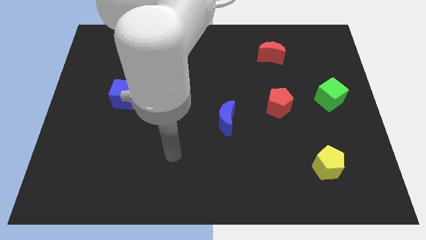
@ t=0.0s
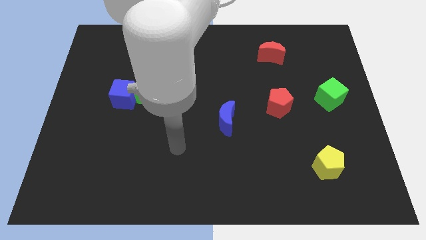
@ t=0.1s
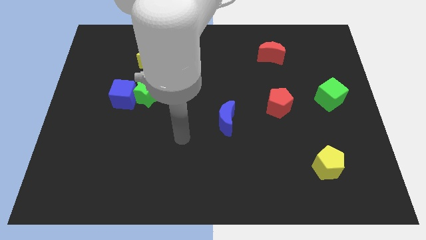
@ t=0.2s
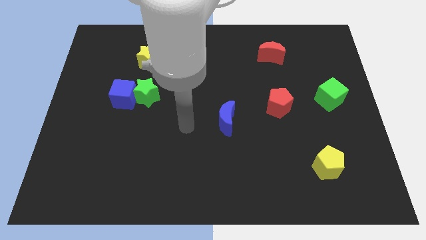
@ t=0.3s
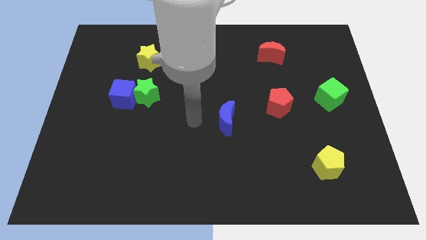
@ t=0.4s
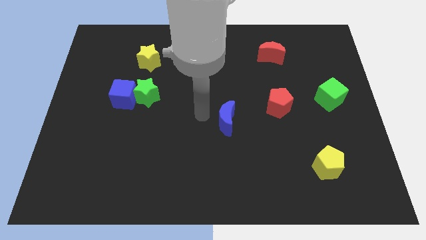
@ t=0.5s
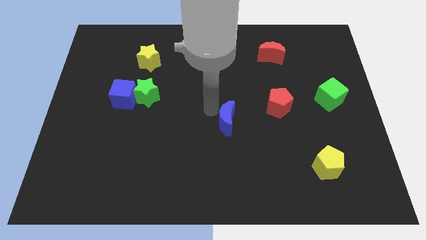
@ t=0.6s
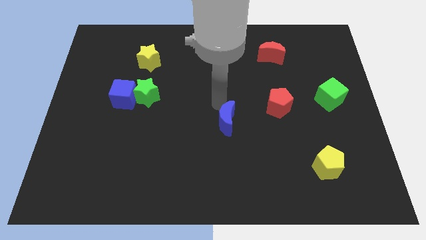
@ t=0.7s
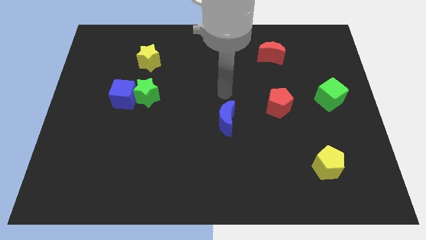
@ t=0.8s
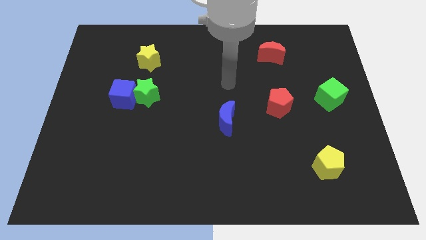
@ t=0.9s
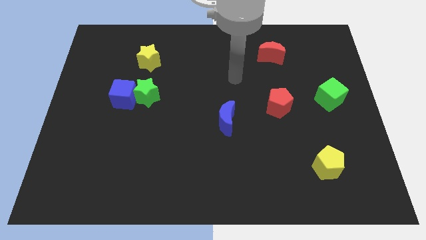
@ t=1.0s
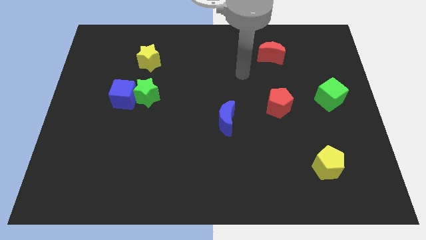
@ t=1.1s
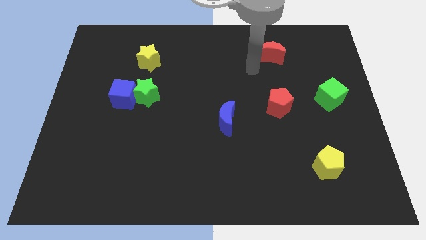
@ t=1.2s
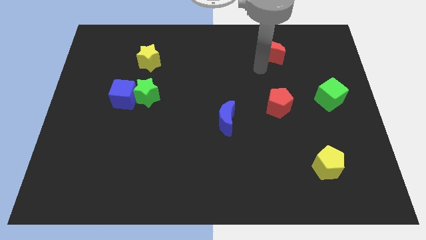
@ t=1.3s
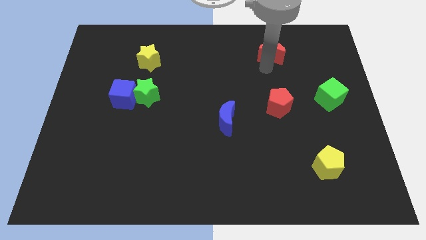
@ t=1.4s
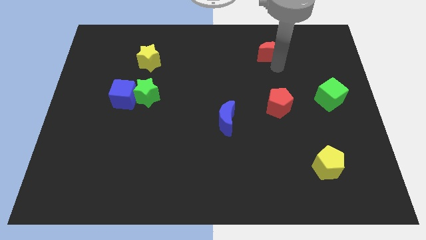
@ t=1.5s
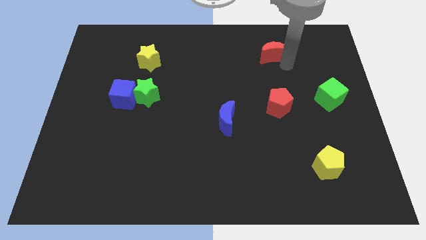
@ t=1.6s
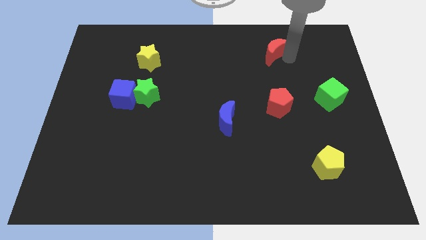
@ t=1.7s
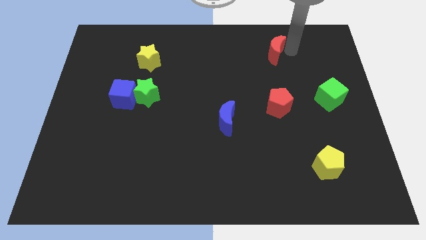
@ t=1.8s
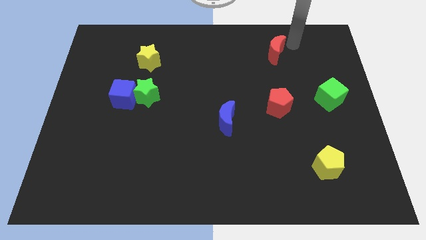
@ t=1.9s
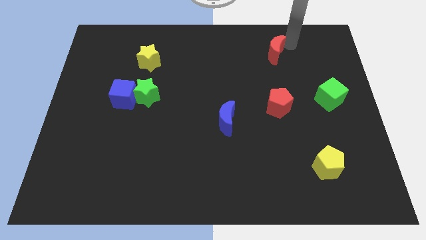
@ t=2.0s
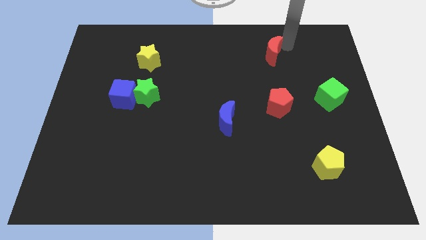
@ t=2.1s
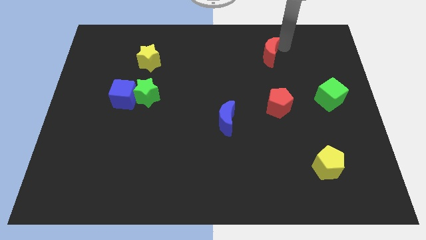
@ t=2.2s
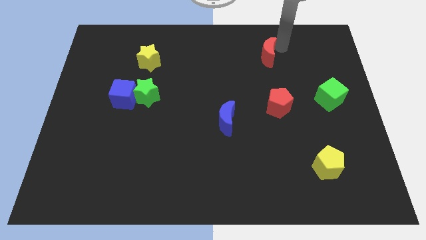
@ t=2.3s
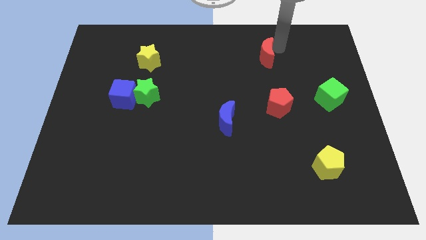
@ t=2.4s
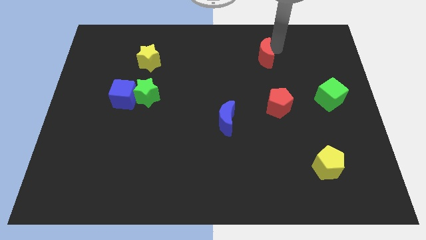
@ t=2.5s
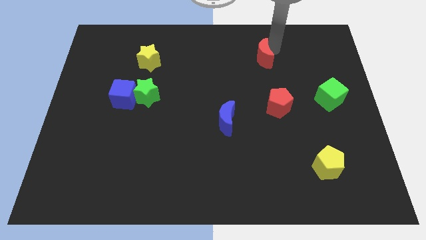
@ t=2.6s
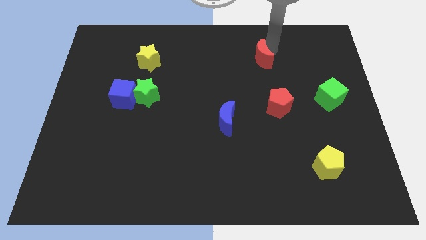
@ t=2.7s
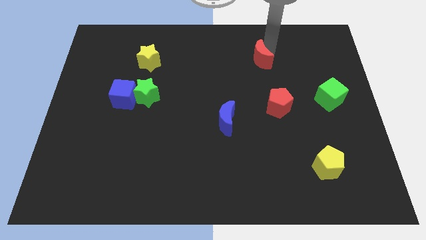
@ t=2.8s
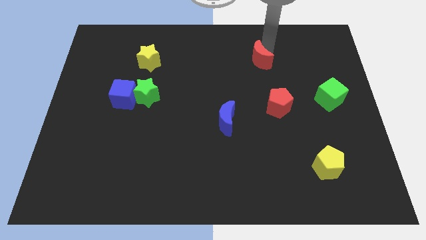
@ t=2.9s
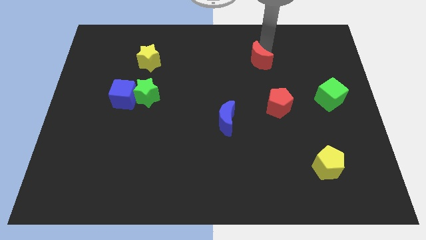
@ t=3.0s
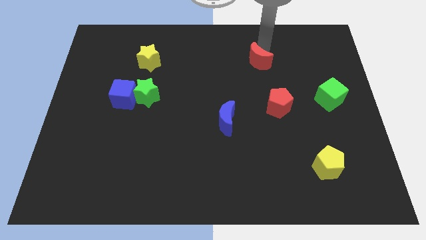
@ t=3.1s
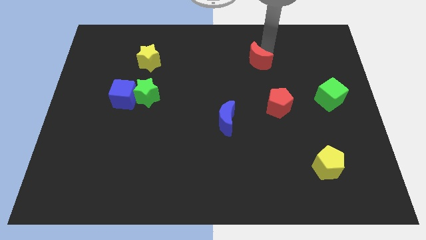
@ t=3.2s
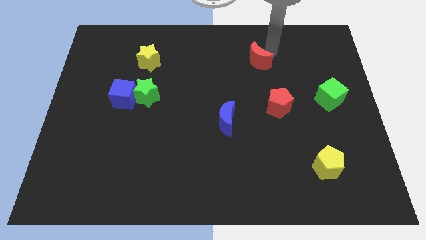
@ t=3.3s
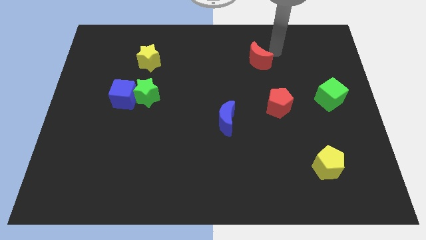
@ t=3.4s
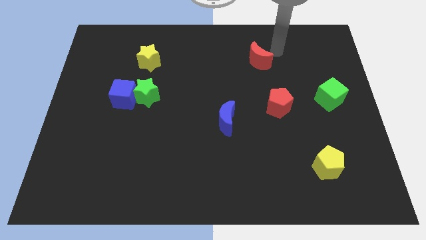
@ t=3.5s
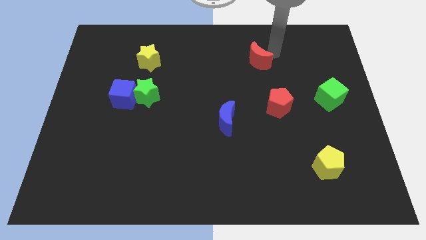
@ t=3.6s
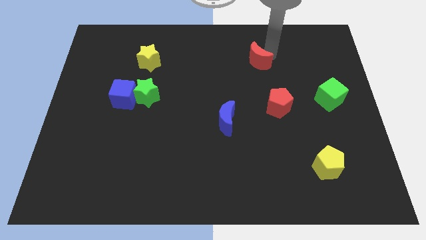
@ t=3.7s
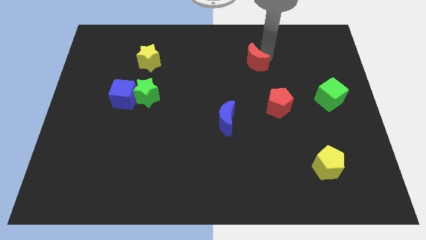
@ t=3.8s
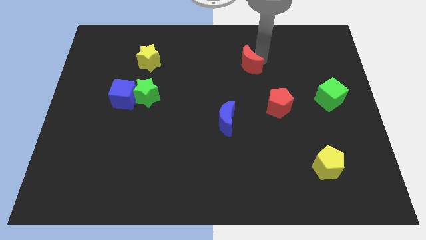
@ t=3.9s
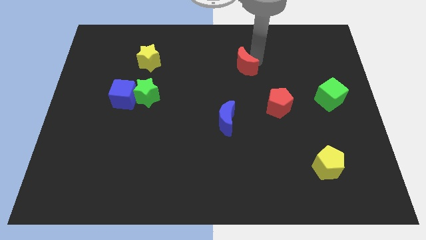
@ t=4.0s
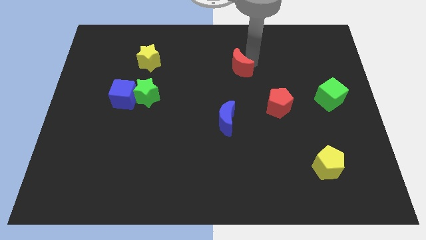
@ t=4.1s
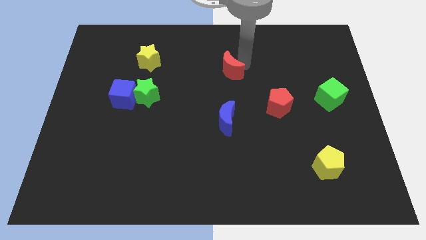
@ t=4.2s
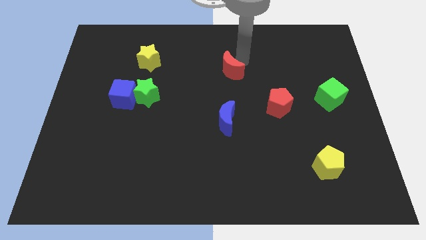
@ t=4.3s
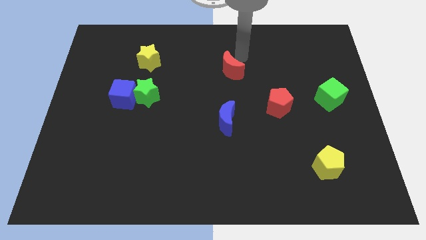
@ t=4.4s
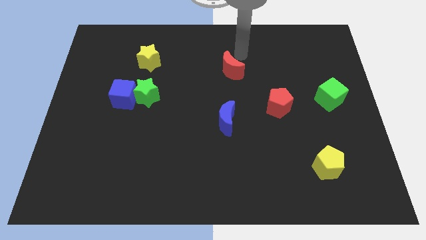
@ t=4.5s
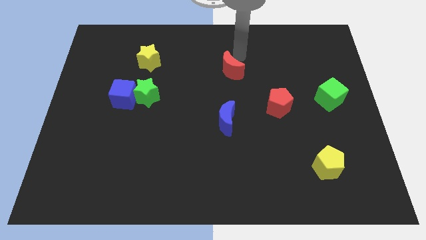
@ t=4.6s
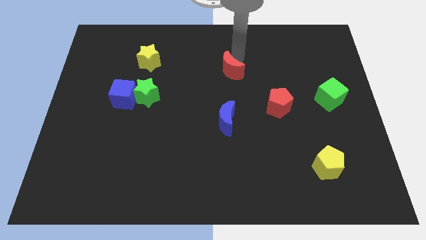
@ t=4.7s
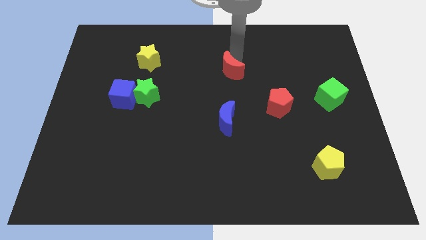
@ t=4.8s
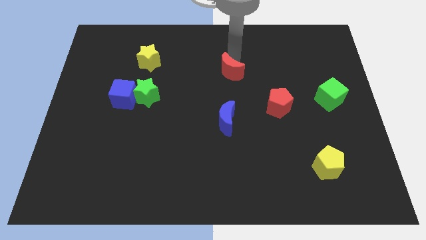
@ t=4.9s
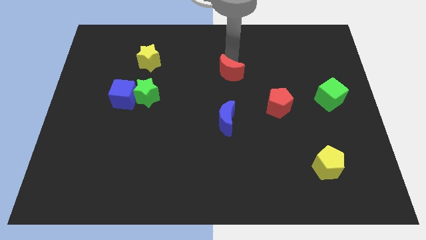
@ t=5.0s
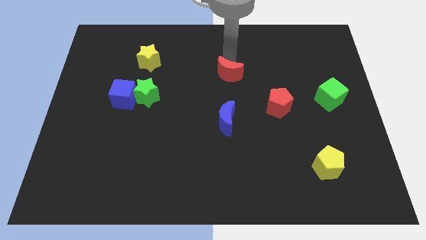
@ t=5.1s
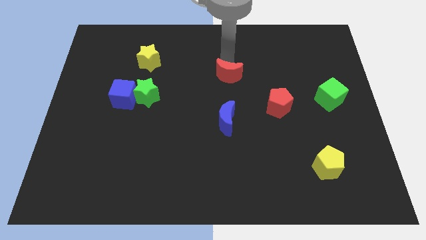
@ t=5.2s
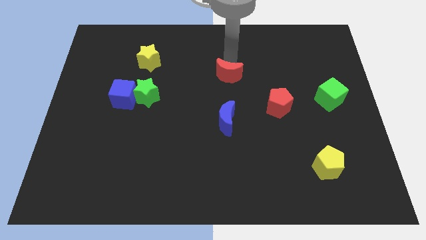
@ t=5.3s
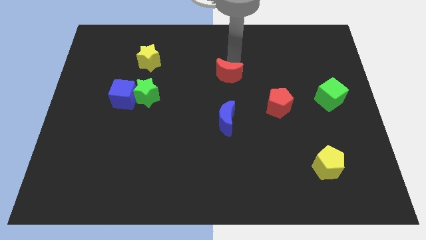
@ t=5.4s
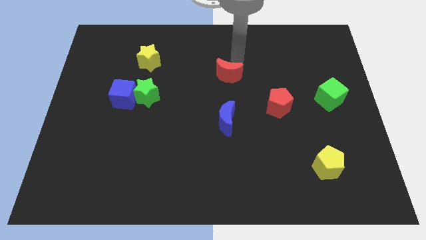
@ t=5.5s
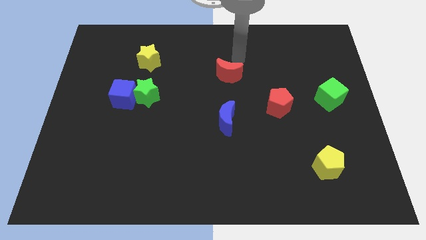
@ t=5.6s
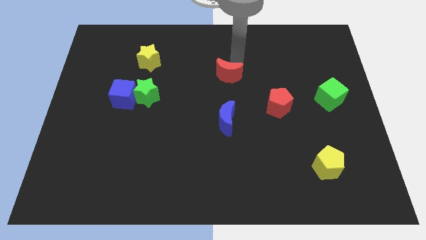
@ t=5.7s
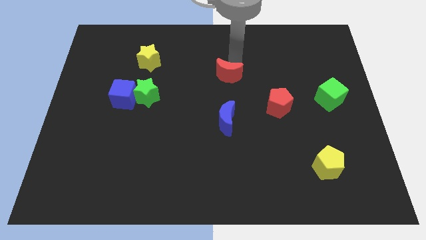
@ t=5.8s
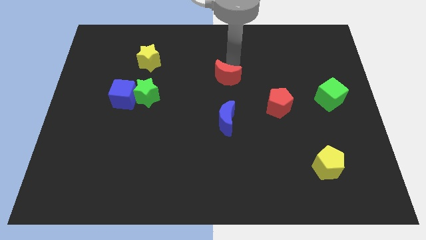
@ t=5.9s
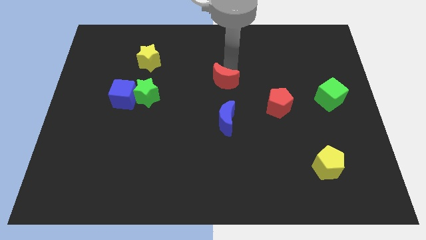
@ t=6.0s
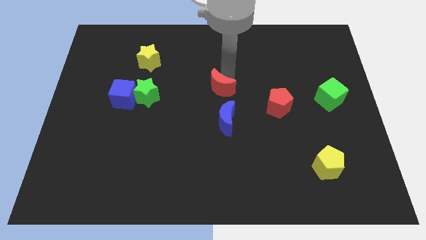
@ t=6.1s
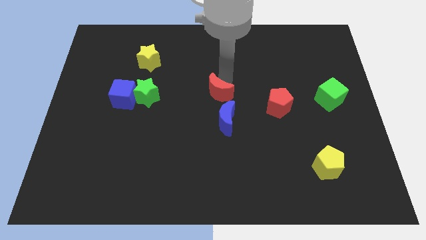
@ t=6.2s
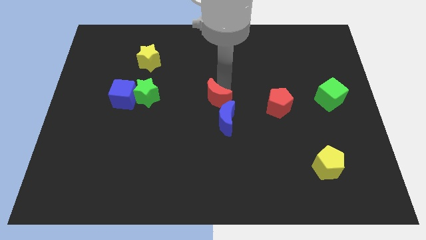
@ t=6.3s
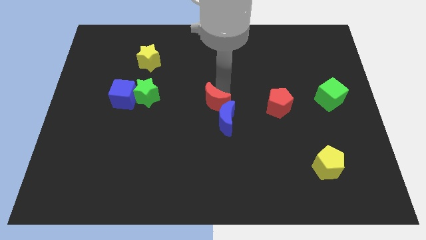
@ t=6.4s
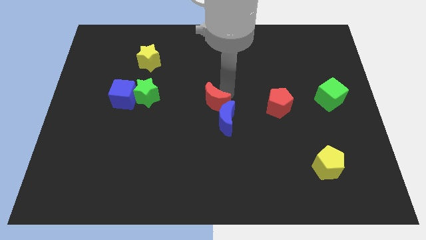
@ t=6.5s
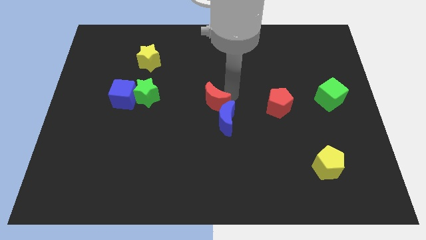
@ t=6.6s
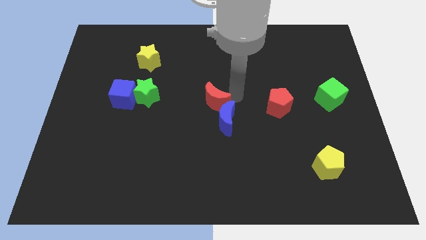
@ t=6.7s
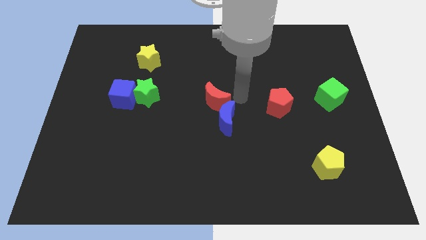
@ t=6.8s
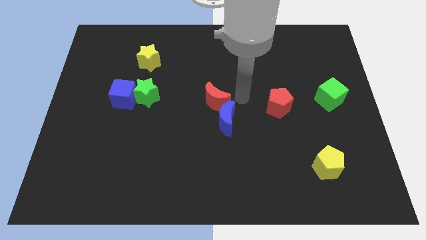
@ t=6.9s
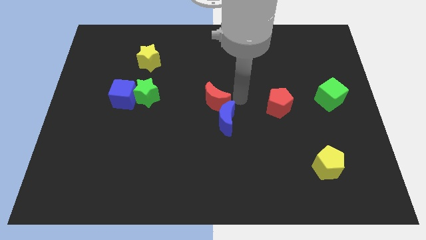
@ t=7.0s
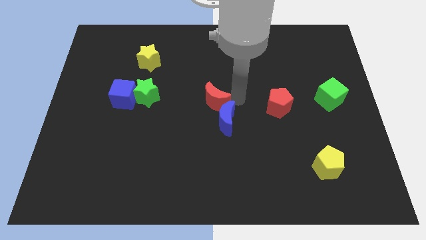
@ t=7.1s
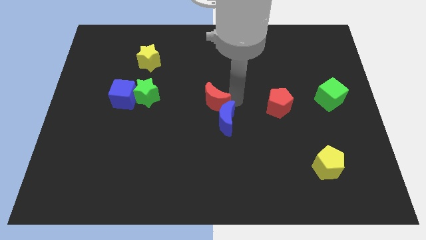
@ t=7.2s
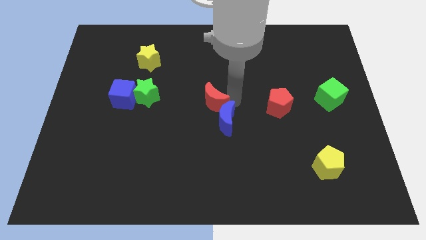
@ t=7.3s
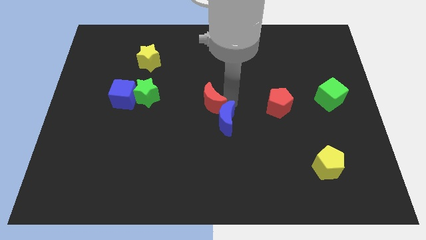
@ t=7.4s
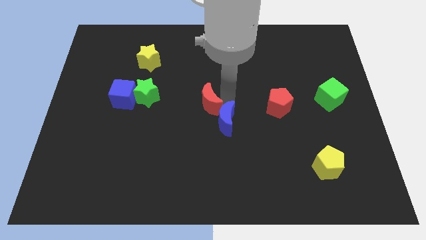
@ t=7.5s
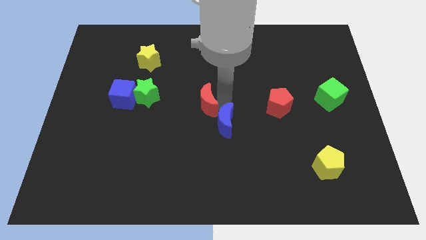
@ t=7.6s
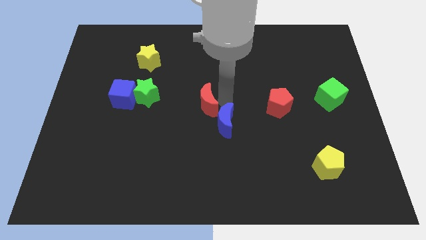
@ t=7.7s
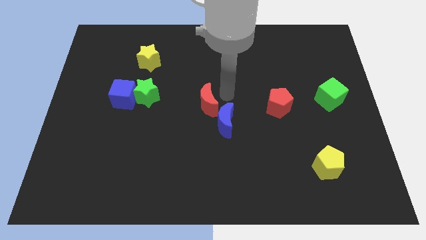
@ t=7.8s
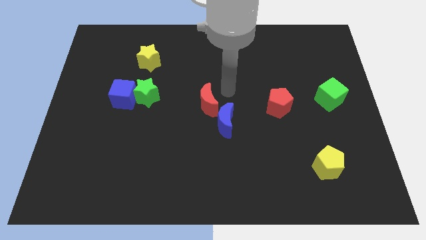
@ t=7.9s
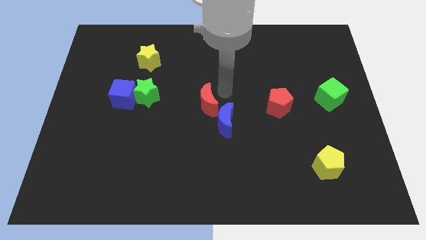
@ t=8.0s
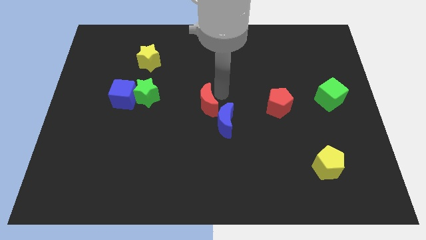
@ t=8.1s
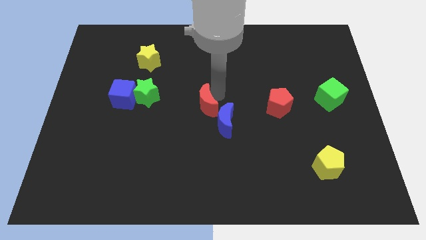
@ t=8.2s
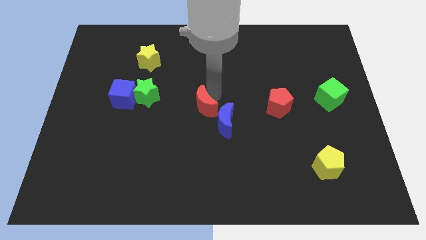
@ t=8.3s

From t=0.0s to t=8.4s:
put the red moon to the left side of the blue moon
